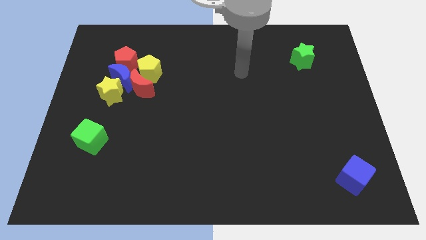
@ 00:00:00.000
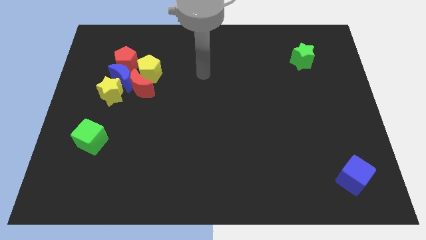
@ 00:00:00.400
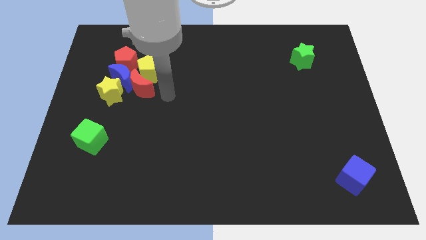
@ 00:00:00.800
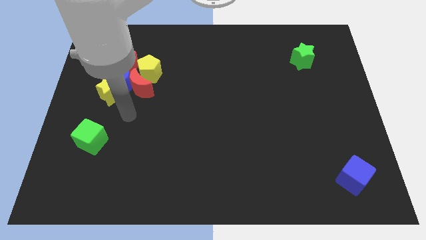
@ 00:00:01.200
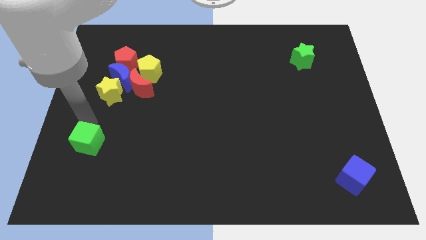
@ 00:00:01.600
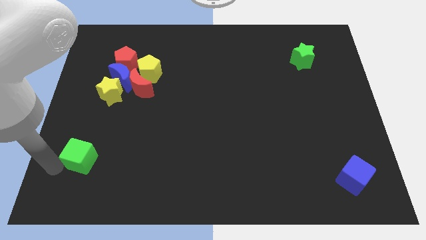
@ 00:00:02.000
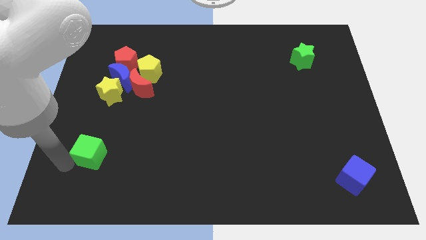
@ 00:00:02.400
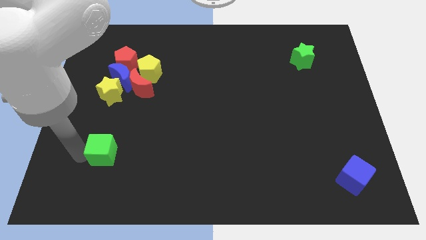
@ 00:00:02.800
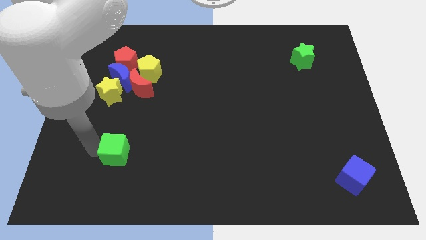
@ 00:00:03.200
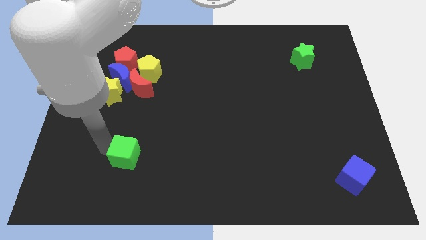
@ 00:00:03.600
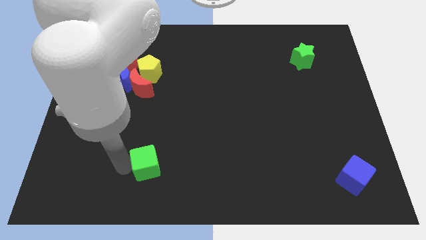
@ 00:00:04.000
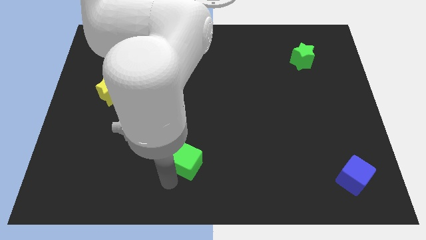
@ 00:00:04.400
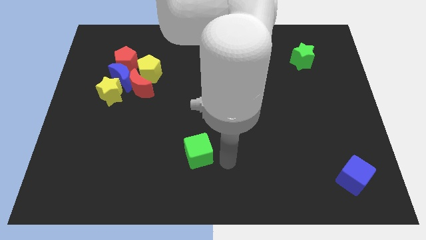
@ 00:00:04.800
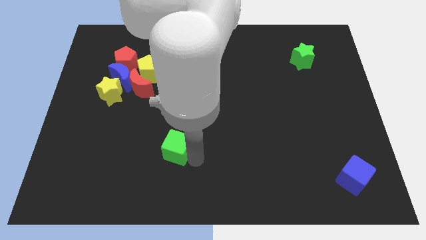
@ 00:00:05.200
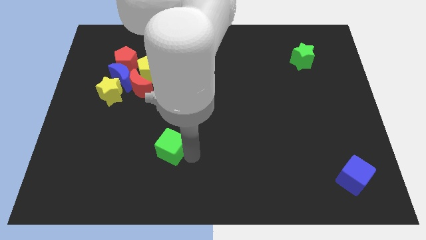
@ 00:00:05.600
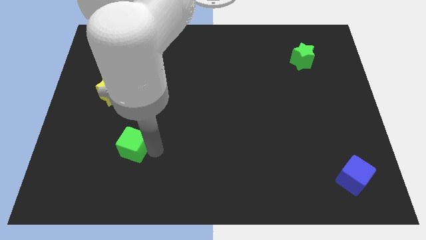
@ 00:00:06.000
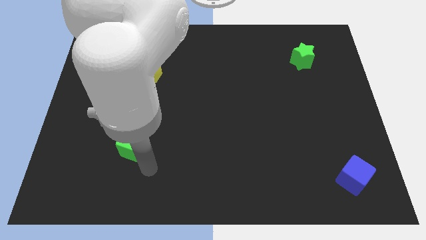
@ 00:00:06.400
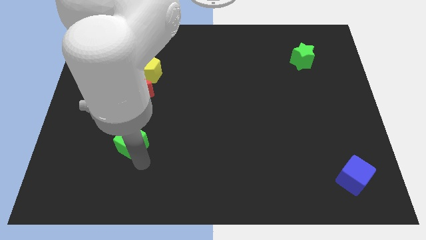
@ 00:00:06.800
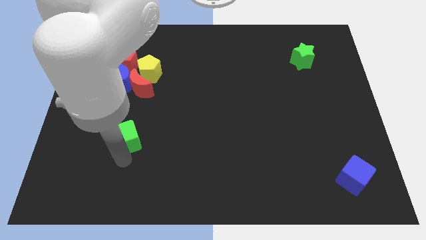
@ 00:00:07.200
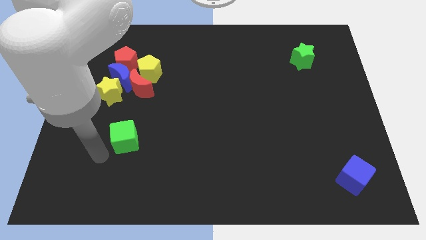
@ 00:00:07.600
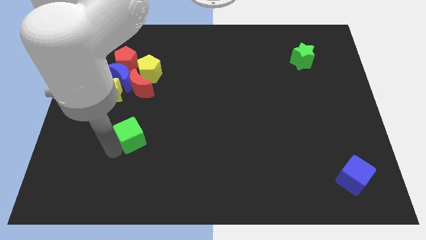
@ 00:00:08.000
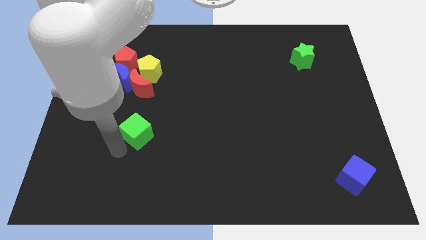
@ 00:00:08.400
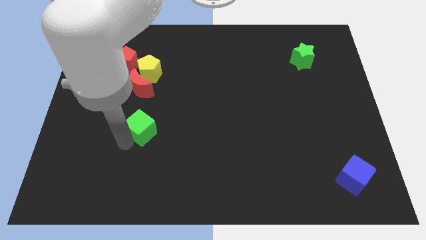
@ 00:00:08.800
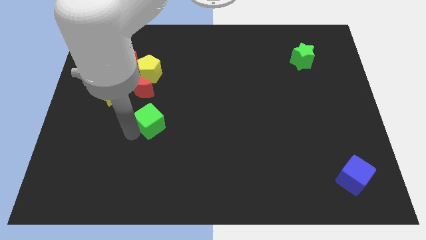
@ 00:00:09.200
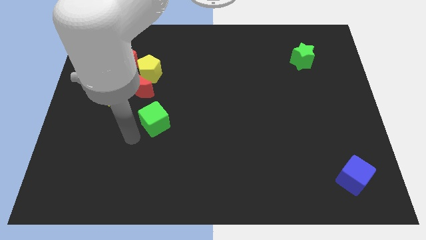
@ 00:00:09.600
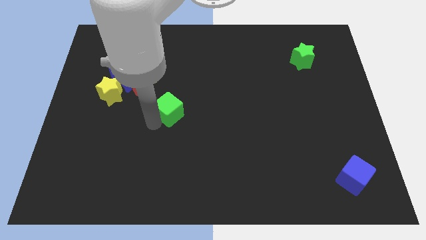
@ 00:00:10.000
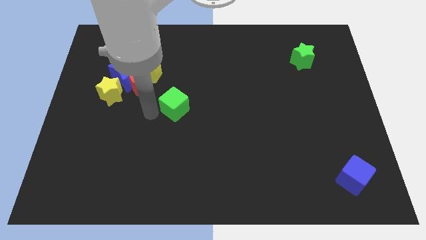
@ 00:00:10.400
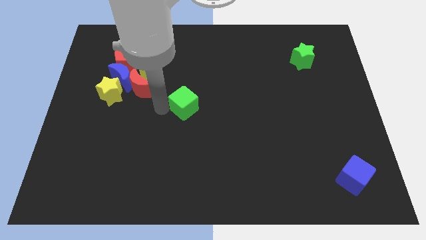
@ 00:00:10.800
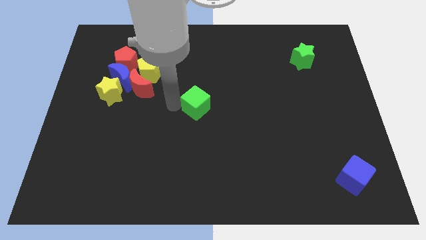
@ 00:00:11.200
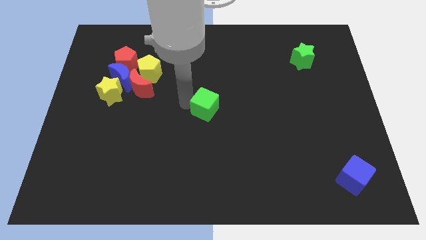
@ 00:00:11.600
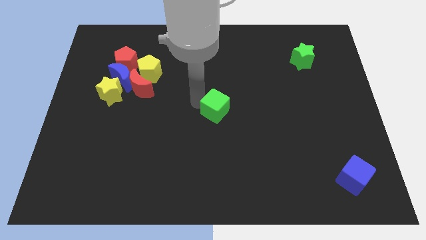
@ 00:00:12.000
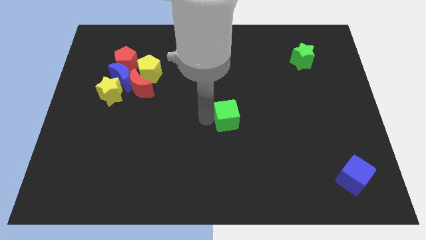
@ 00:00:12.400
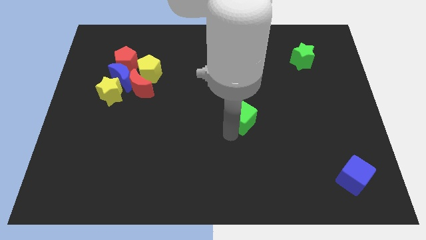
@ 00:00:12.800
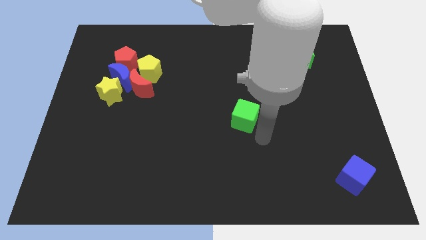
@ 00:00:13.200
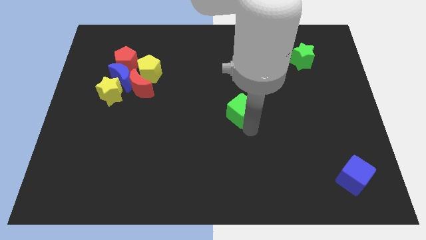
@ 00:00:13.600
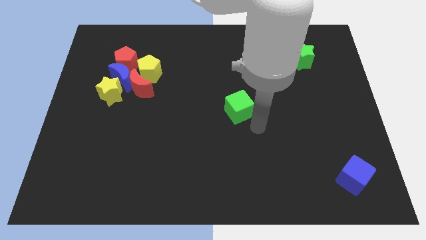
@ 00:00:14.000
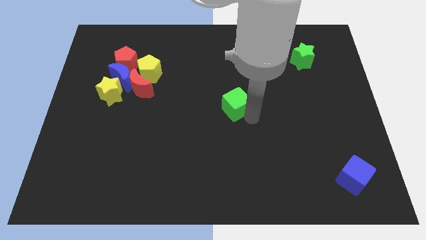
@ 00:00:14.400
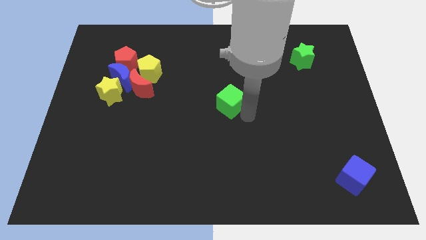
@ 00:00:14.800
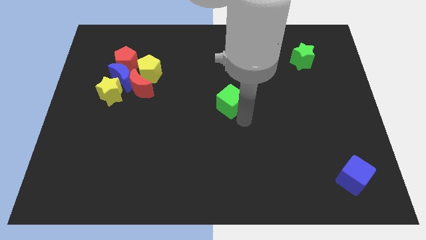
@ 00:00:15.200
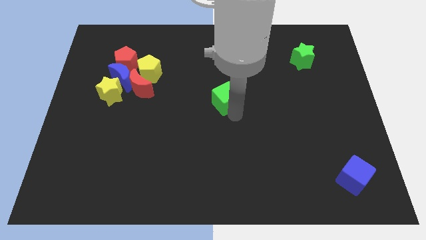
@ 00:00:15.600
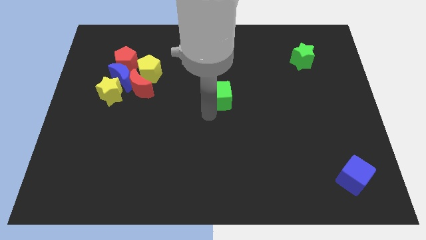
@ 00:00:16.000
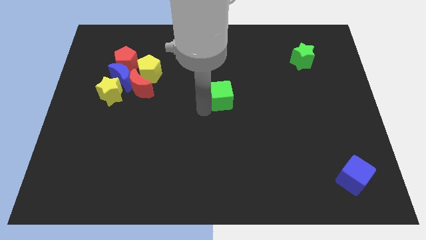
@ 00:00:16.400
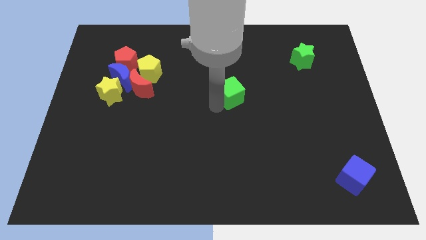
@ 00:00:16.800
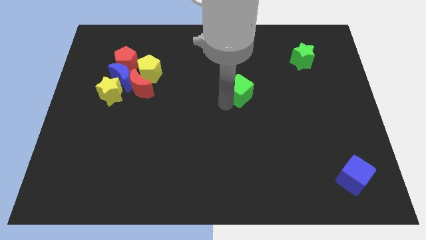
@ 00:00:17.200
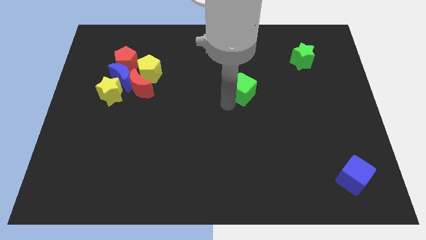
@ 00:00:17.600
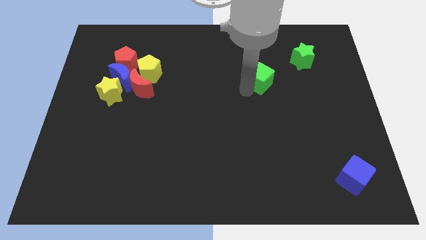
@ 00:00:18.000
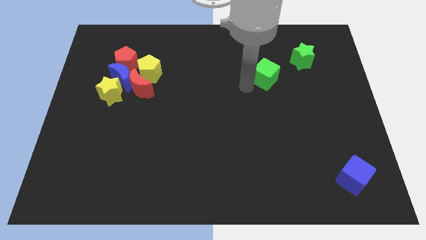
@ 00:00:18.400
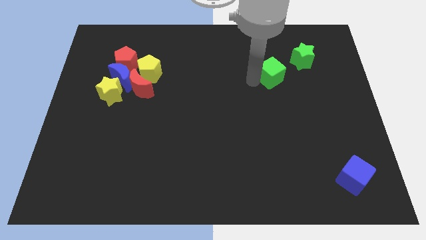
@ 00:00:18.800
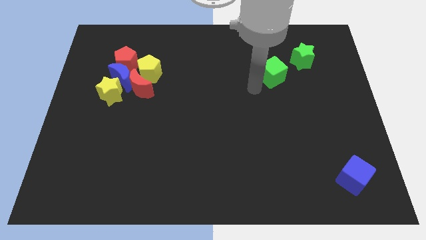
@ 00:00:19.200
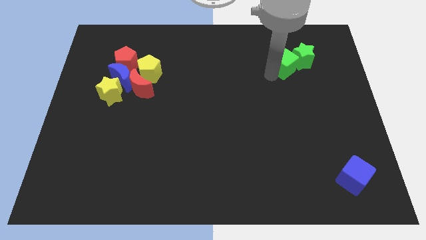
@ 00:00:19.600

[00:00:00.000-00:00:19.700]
slide the green cube close to the green star

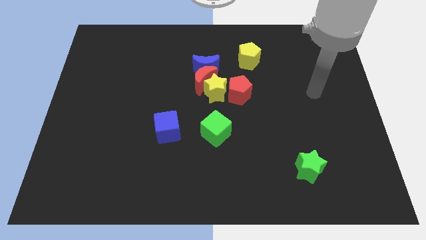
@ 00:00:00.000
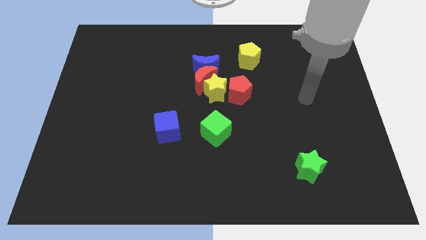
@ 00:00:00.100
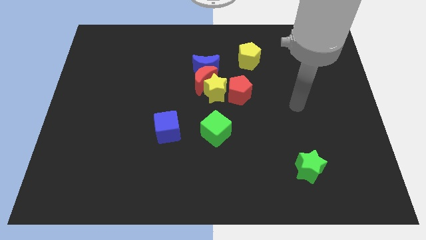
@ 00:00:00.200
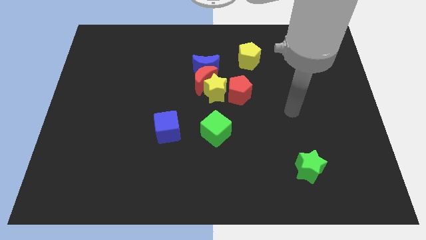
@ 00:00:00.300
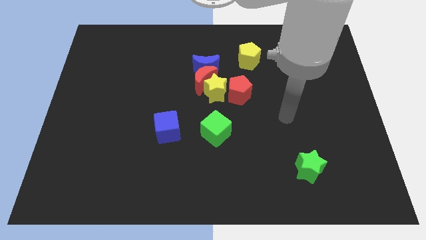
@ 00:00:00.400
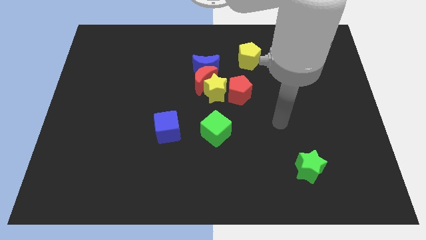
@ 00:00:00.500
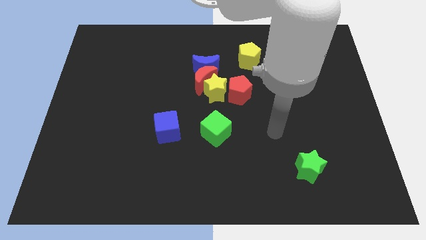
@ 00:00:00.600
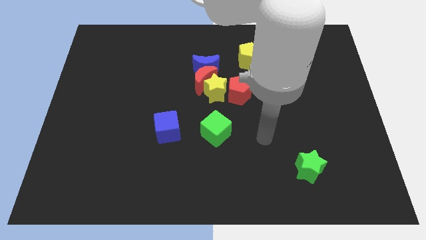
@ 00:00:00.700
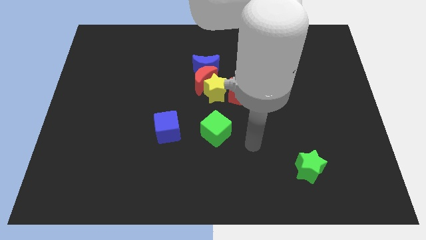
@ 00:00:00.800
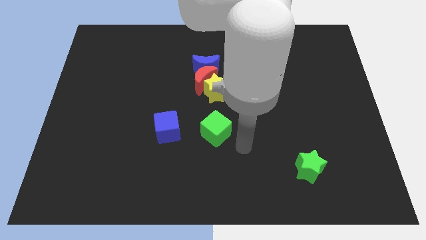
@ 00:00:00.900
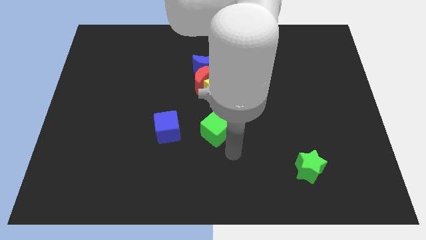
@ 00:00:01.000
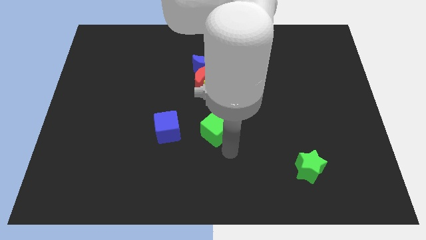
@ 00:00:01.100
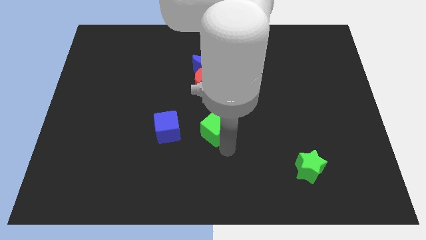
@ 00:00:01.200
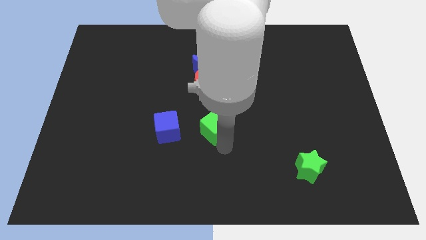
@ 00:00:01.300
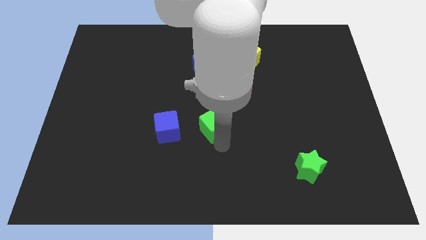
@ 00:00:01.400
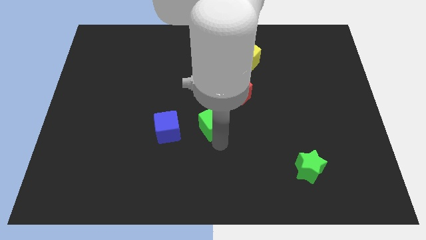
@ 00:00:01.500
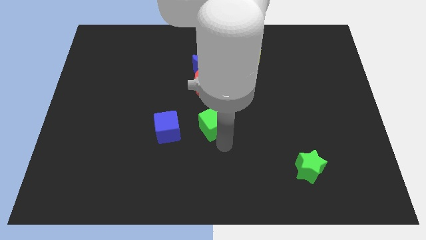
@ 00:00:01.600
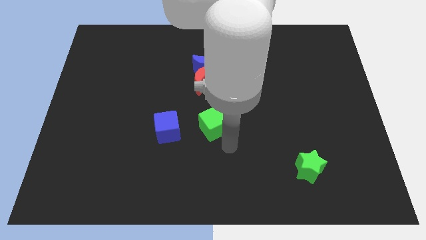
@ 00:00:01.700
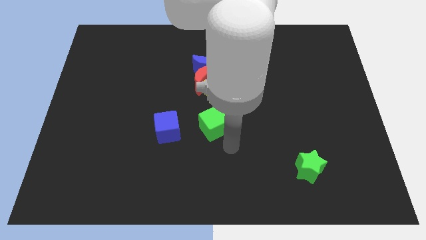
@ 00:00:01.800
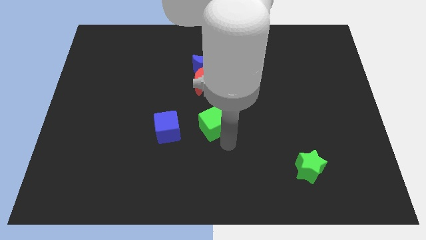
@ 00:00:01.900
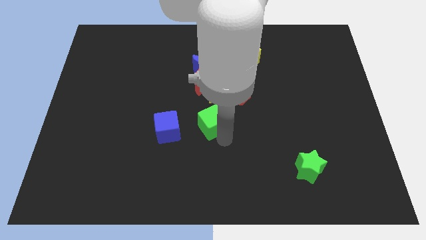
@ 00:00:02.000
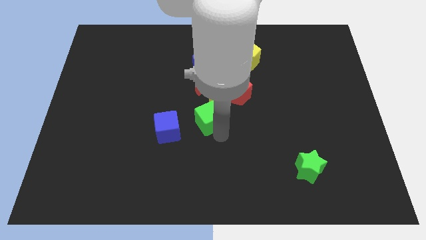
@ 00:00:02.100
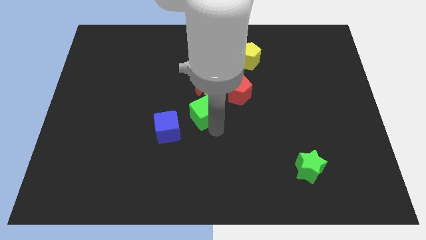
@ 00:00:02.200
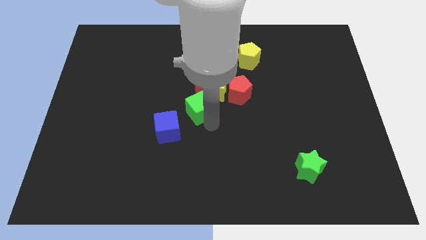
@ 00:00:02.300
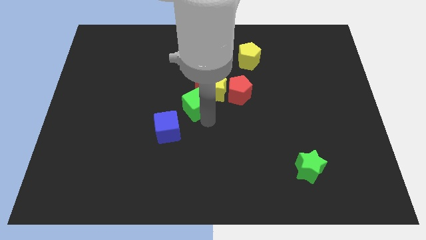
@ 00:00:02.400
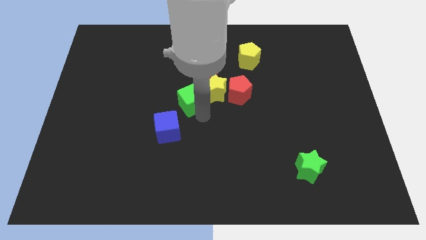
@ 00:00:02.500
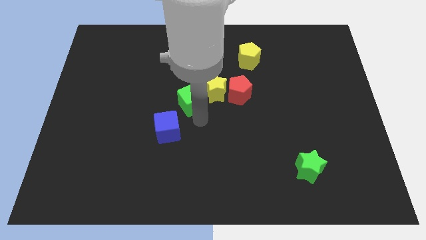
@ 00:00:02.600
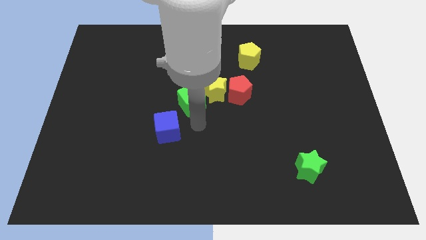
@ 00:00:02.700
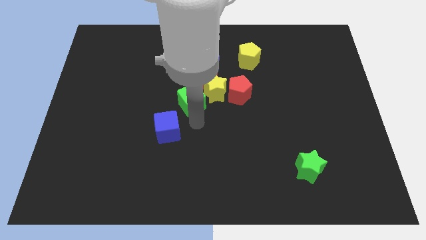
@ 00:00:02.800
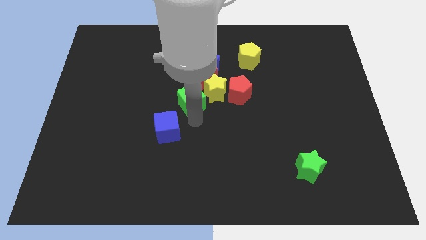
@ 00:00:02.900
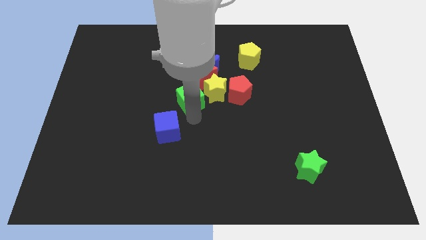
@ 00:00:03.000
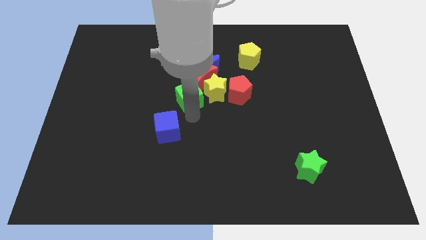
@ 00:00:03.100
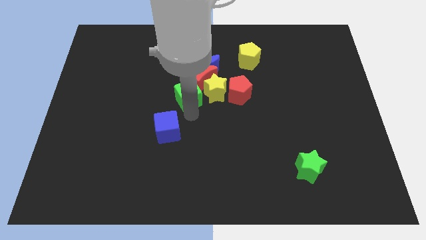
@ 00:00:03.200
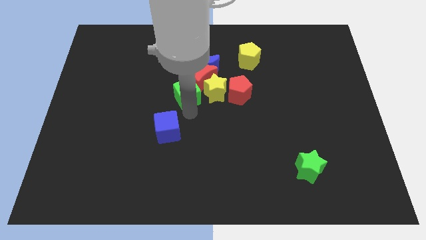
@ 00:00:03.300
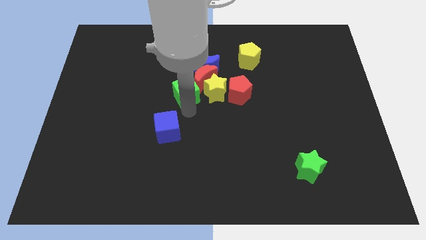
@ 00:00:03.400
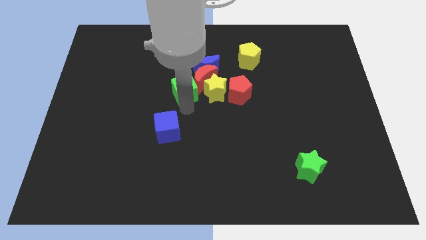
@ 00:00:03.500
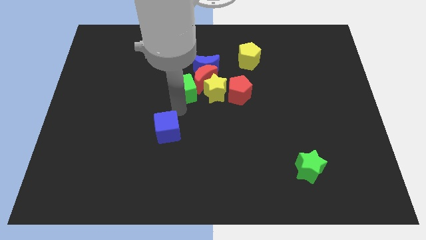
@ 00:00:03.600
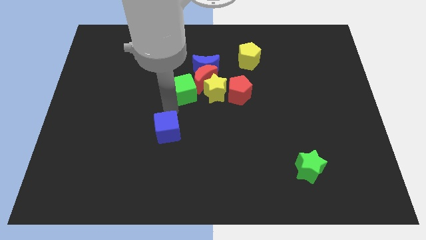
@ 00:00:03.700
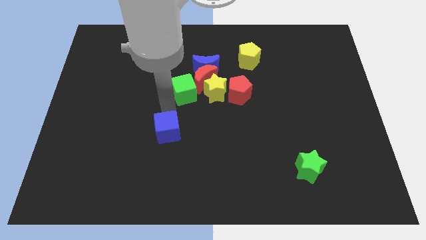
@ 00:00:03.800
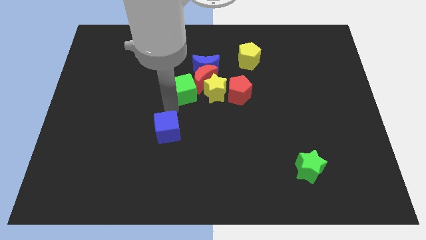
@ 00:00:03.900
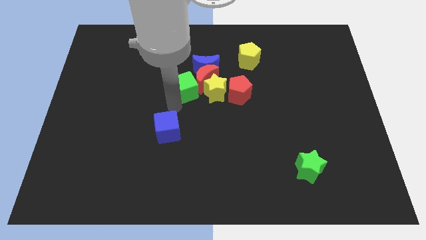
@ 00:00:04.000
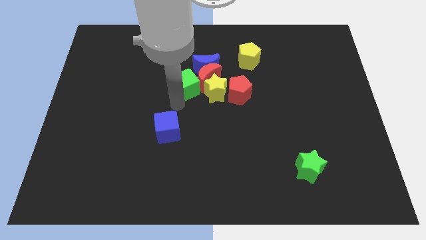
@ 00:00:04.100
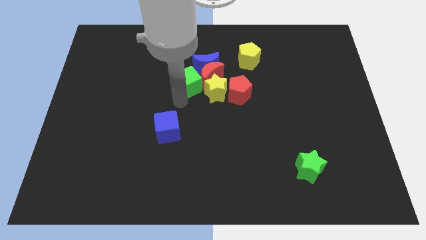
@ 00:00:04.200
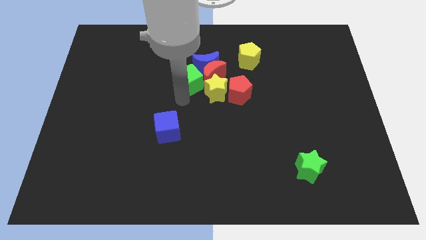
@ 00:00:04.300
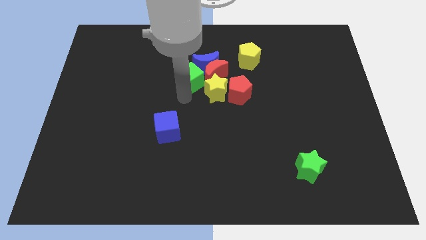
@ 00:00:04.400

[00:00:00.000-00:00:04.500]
push the green cube towards the blue moon
